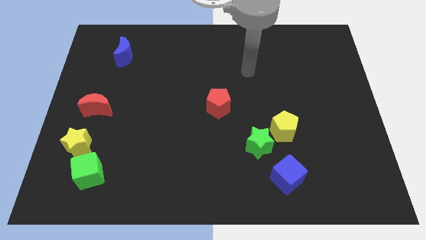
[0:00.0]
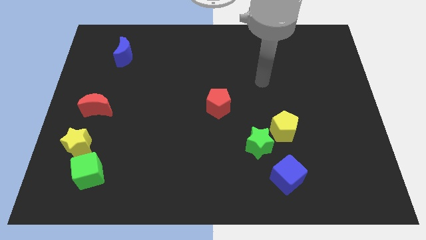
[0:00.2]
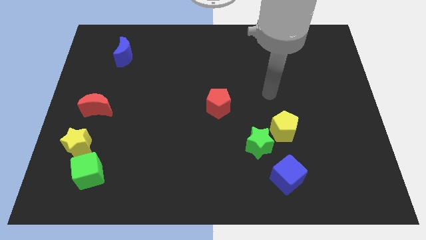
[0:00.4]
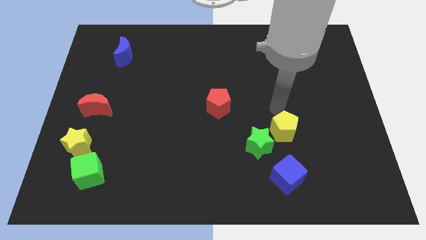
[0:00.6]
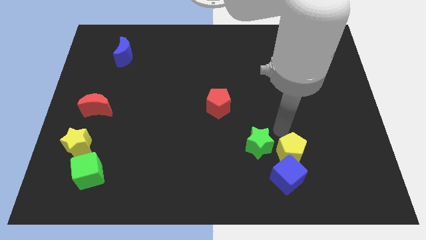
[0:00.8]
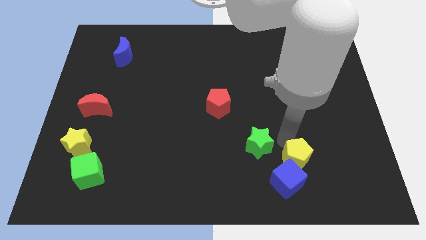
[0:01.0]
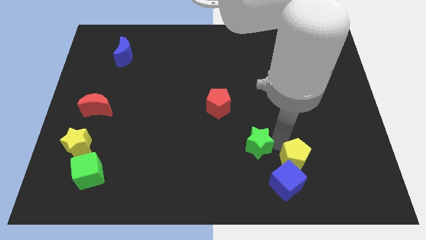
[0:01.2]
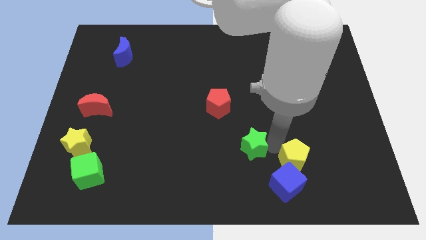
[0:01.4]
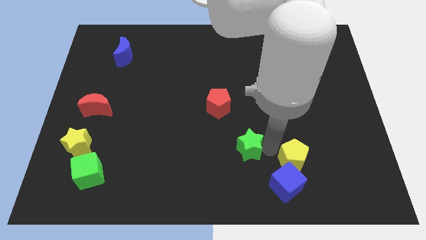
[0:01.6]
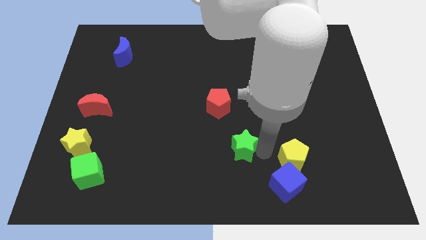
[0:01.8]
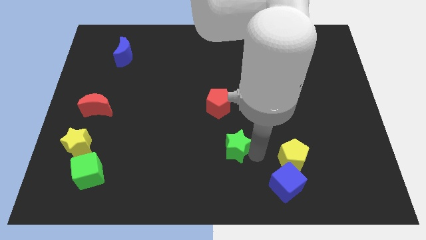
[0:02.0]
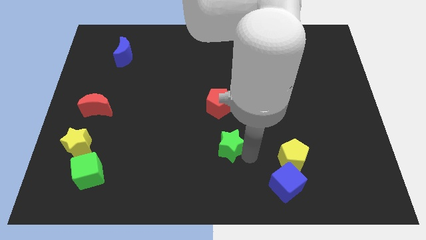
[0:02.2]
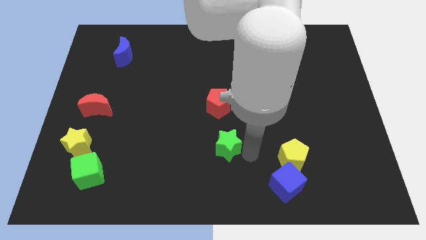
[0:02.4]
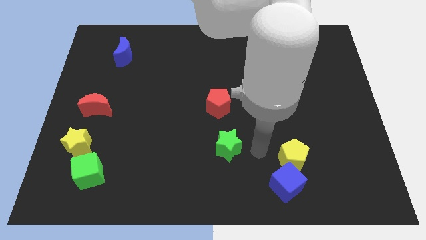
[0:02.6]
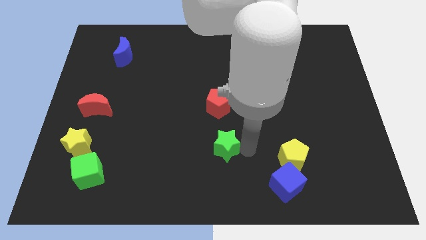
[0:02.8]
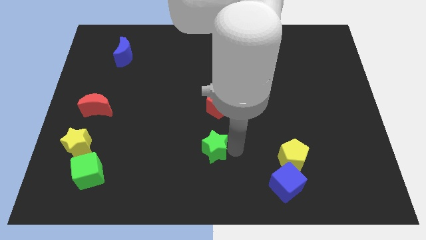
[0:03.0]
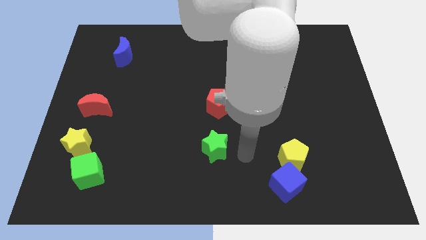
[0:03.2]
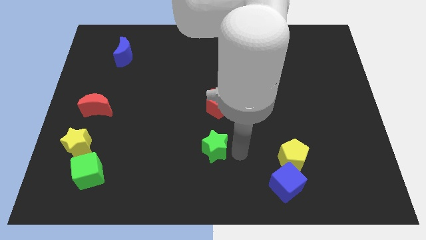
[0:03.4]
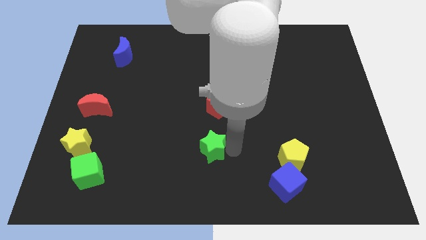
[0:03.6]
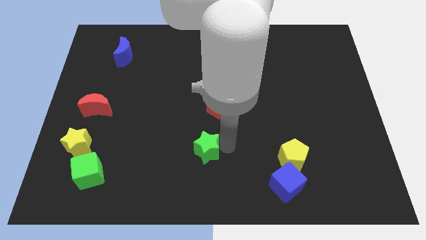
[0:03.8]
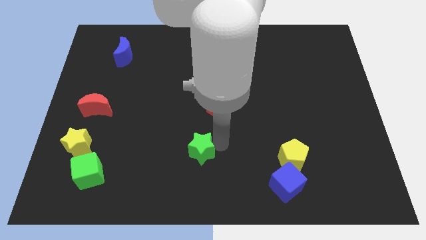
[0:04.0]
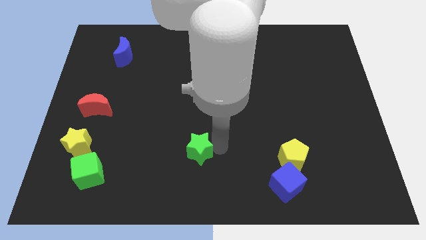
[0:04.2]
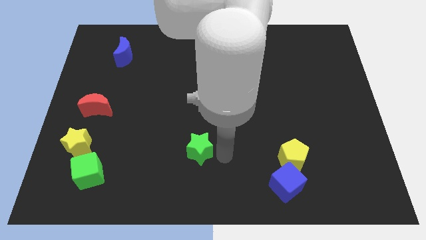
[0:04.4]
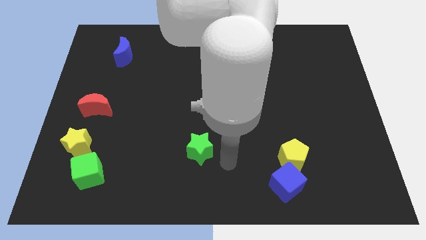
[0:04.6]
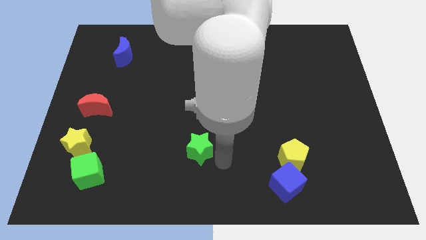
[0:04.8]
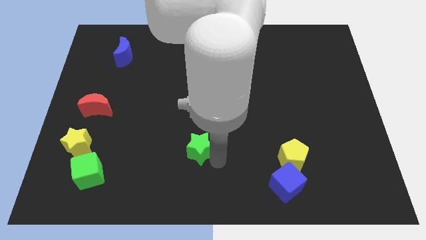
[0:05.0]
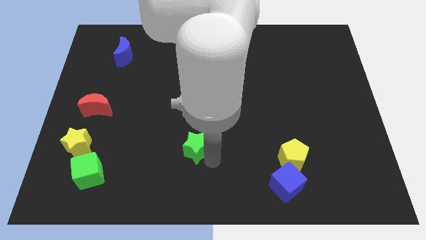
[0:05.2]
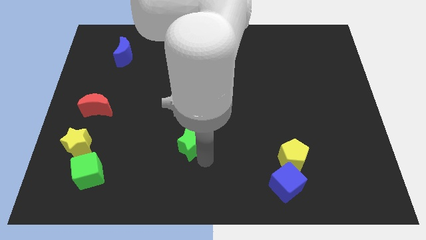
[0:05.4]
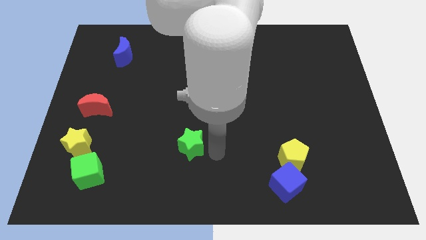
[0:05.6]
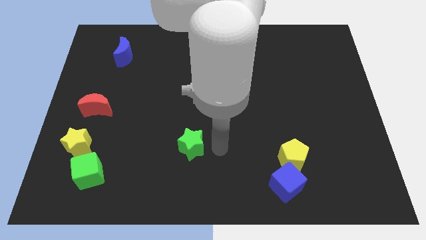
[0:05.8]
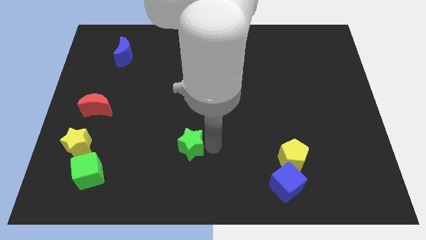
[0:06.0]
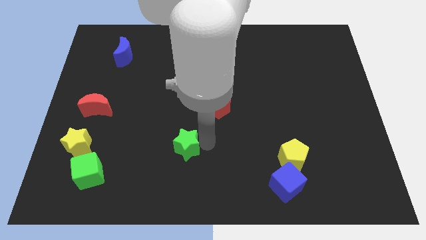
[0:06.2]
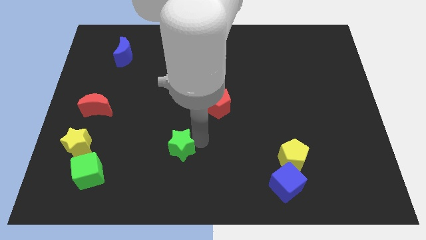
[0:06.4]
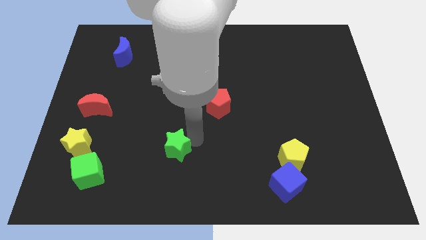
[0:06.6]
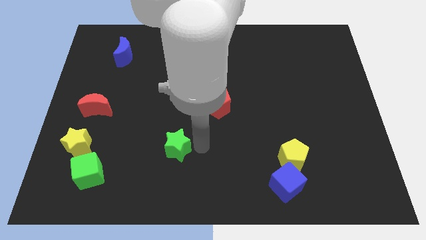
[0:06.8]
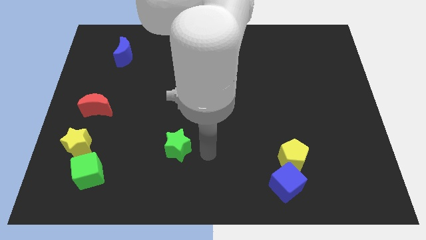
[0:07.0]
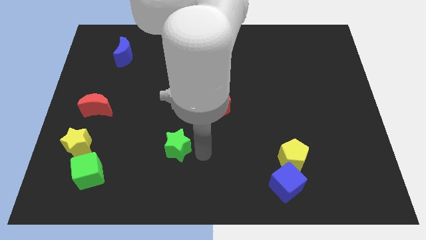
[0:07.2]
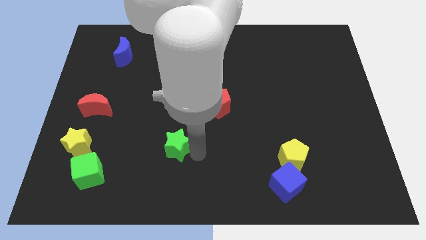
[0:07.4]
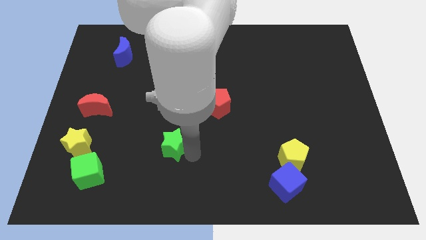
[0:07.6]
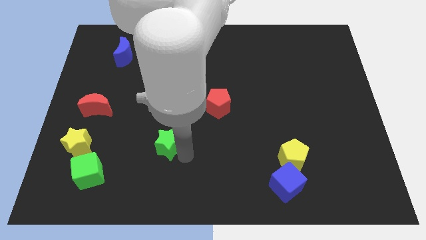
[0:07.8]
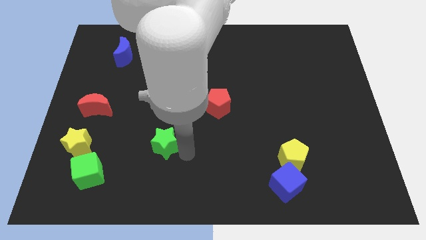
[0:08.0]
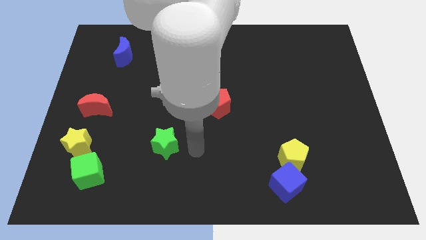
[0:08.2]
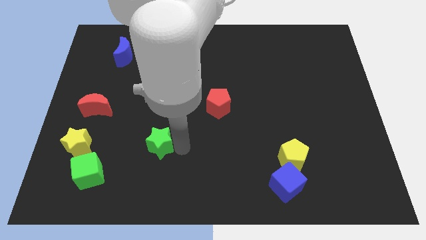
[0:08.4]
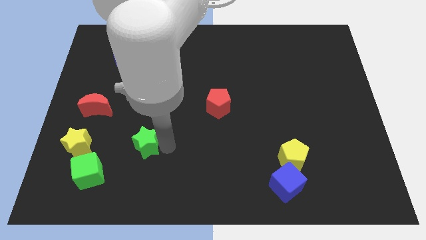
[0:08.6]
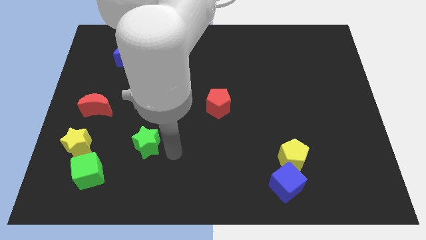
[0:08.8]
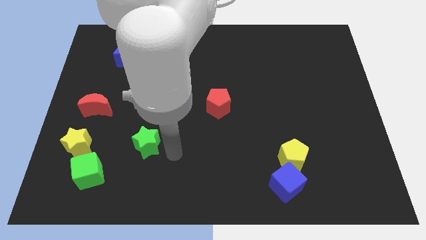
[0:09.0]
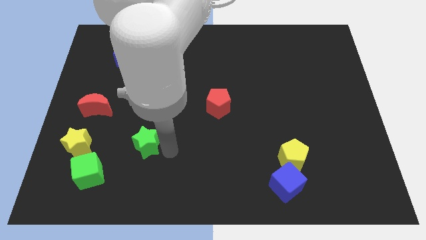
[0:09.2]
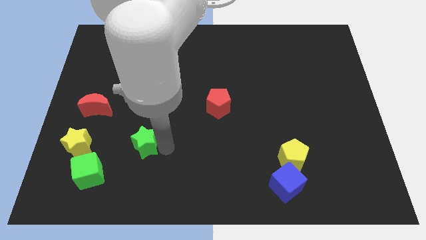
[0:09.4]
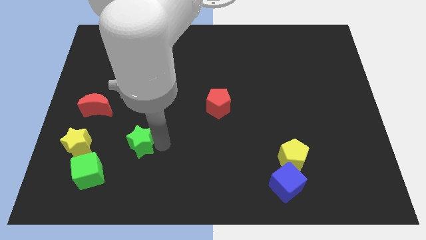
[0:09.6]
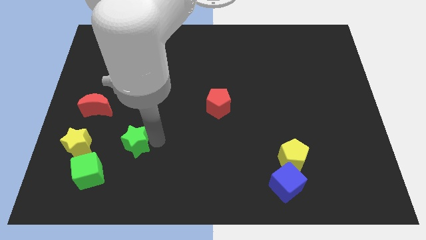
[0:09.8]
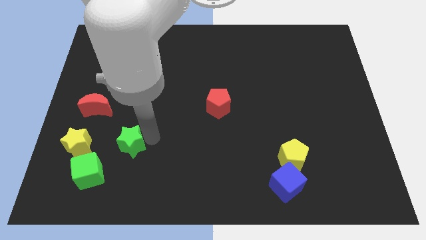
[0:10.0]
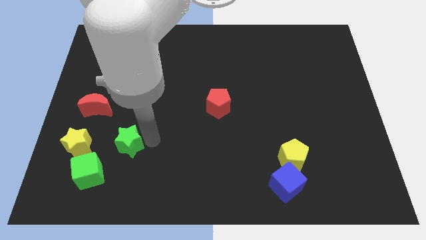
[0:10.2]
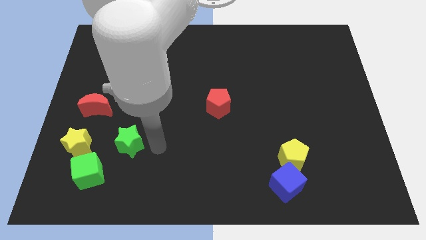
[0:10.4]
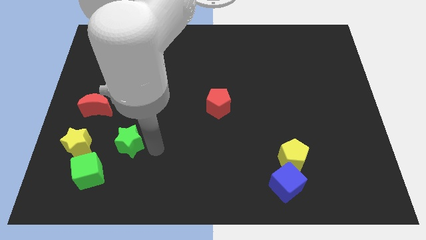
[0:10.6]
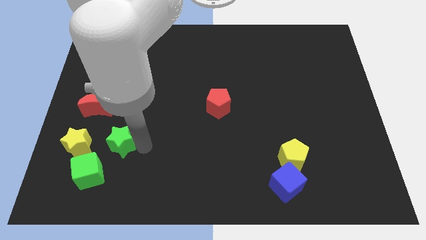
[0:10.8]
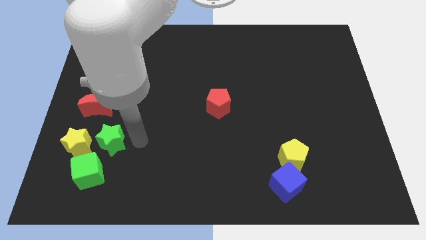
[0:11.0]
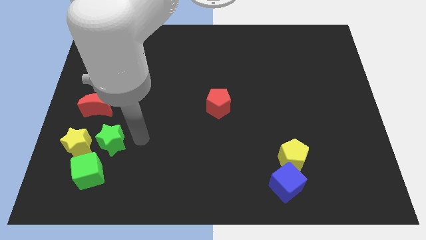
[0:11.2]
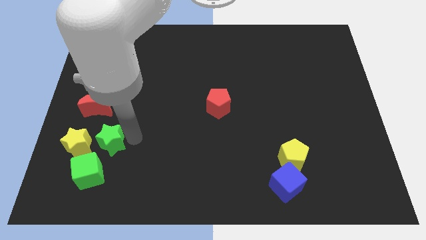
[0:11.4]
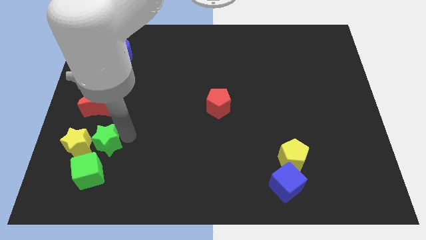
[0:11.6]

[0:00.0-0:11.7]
move the green star next to the yellow star

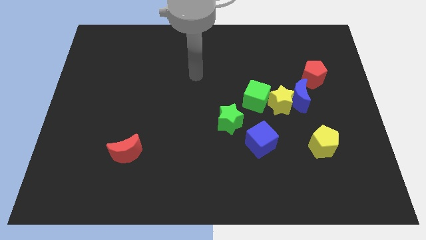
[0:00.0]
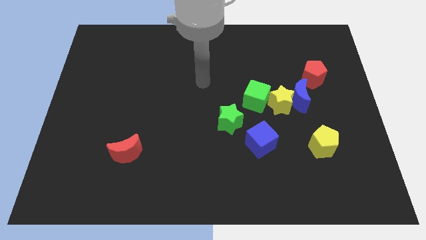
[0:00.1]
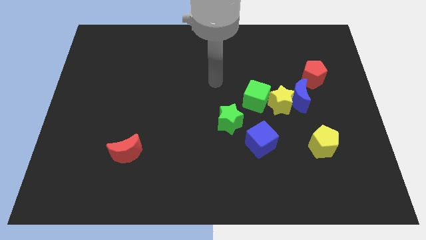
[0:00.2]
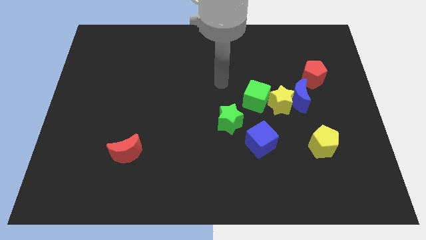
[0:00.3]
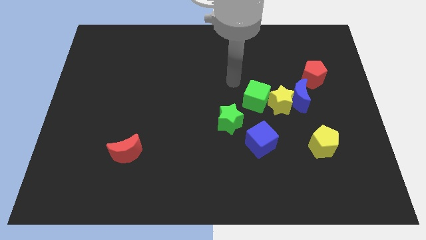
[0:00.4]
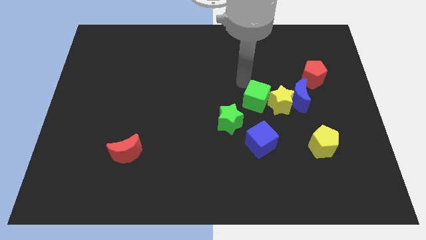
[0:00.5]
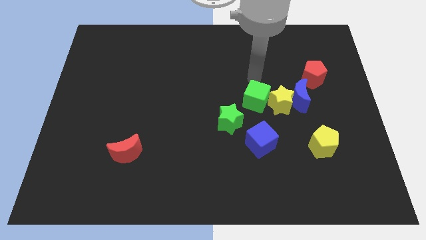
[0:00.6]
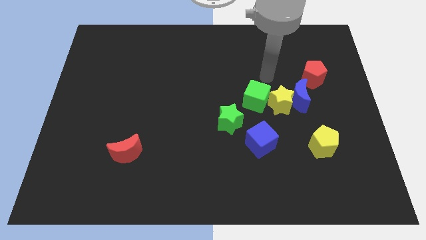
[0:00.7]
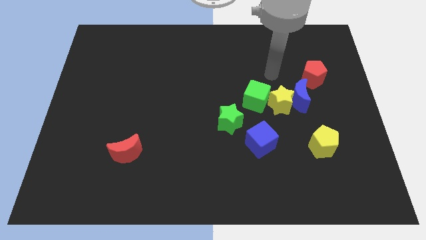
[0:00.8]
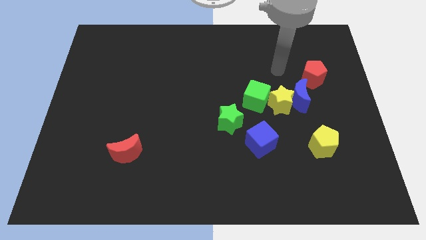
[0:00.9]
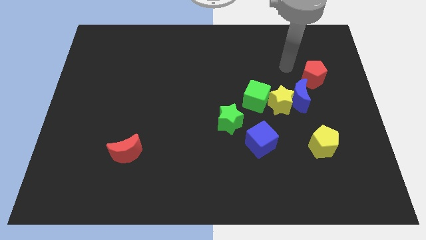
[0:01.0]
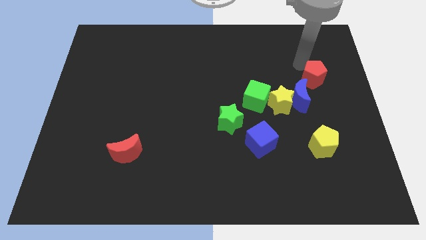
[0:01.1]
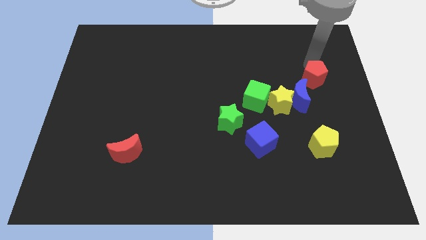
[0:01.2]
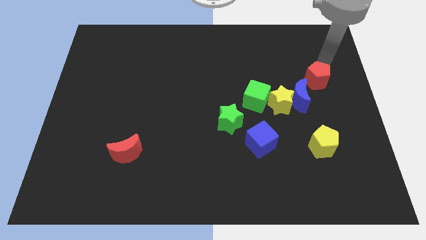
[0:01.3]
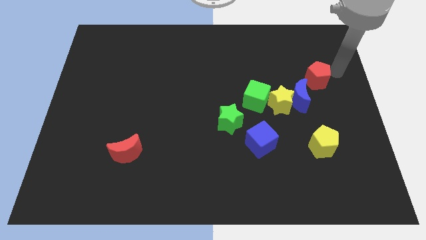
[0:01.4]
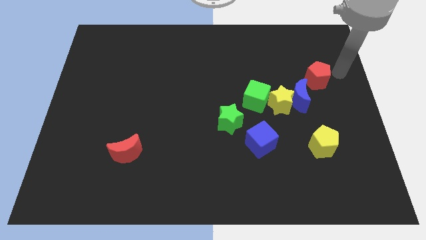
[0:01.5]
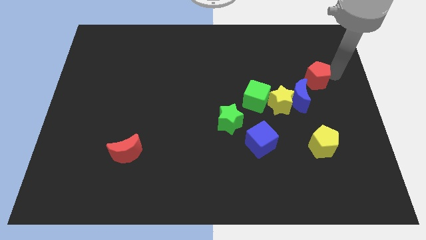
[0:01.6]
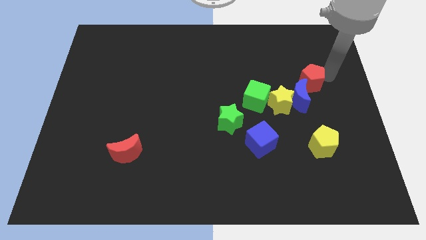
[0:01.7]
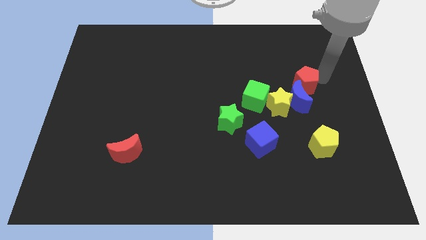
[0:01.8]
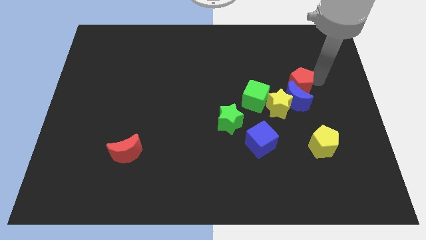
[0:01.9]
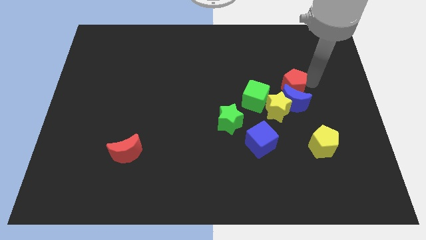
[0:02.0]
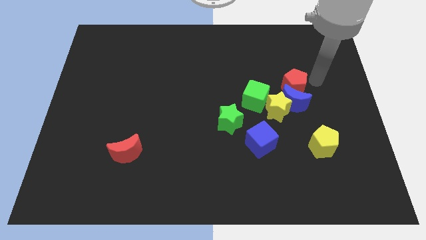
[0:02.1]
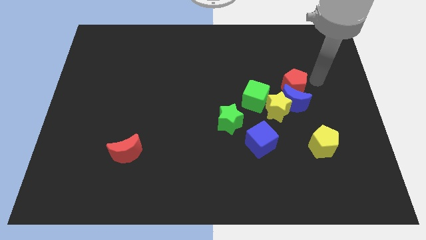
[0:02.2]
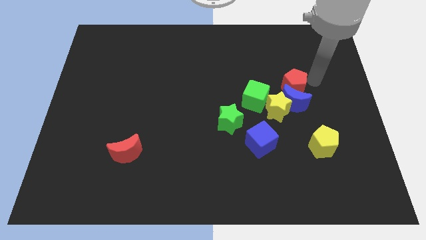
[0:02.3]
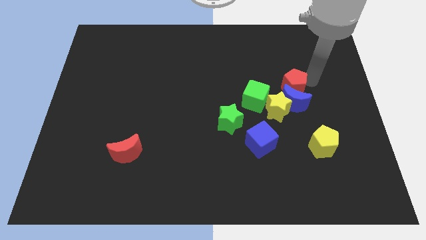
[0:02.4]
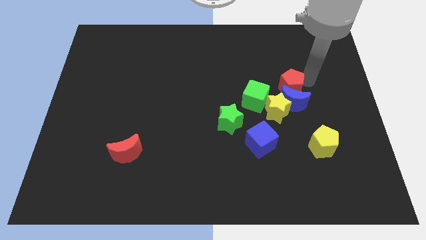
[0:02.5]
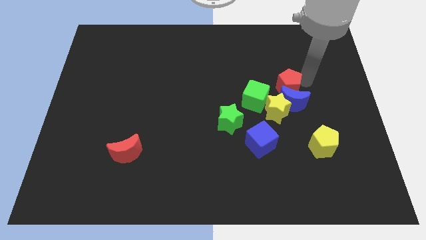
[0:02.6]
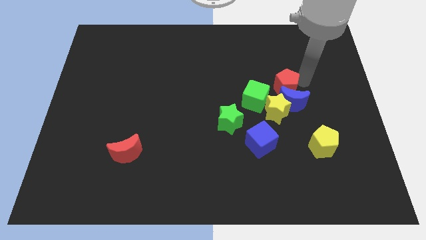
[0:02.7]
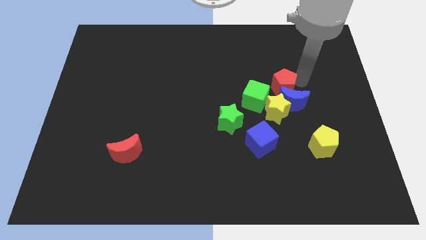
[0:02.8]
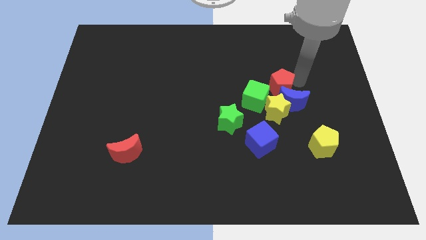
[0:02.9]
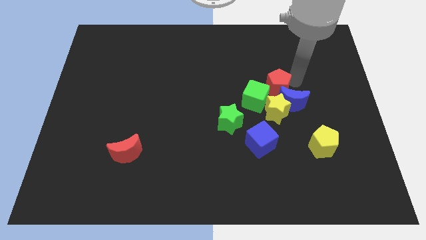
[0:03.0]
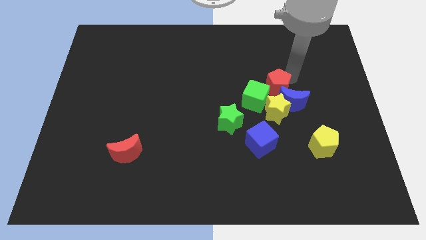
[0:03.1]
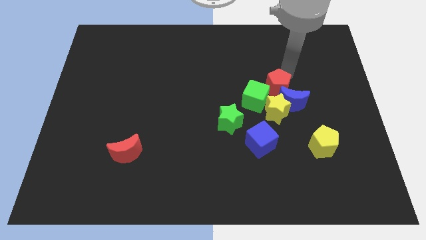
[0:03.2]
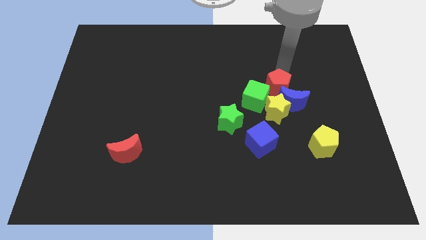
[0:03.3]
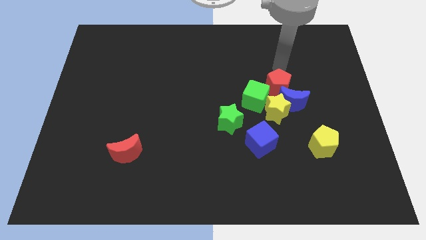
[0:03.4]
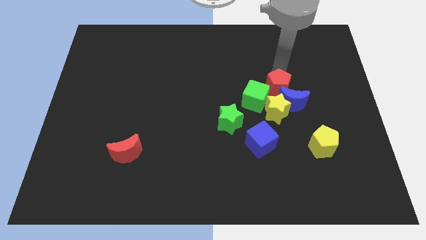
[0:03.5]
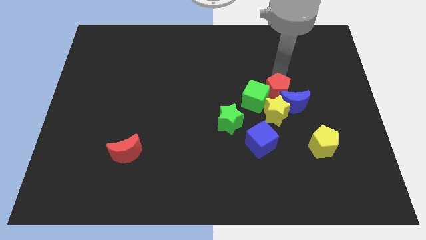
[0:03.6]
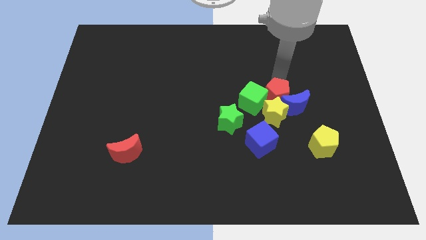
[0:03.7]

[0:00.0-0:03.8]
put the red pentagon close to the yellow star
